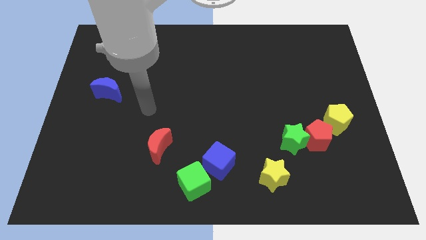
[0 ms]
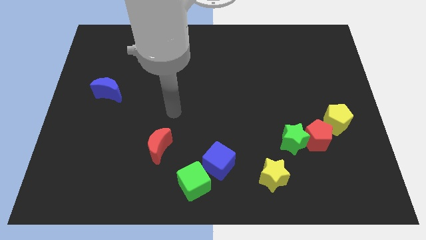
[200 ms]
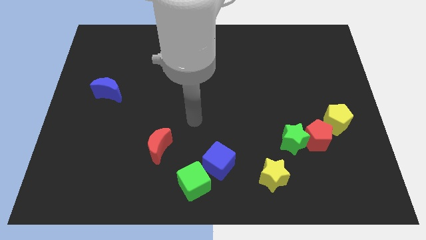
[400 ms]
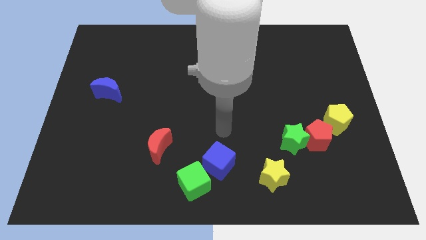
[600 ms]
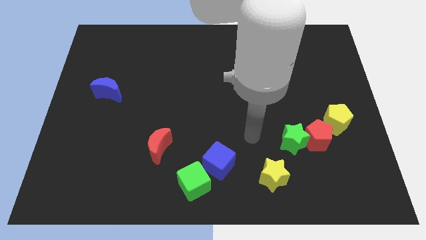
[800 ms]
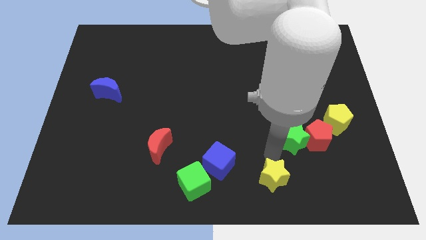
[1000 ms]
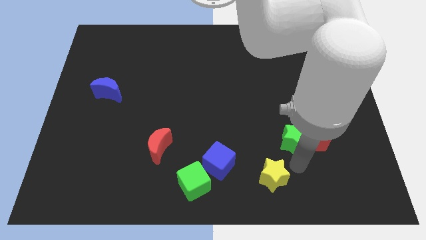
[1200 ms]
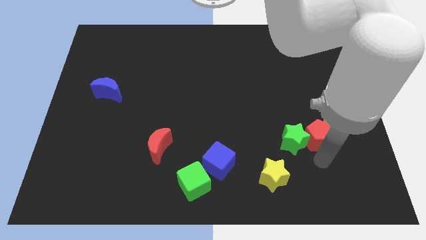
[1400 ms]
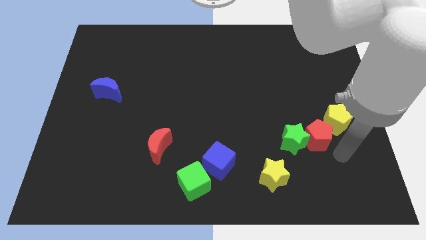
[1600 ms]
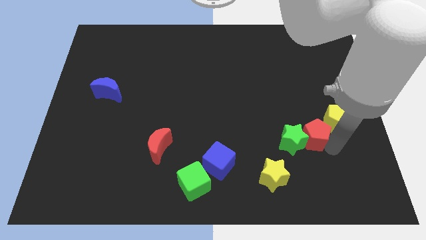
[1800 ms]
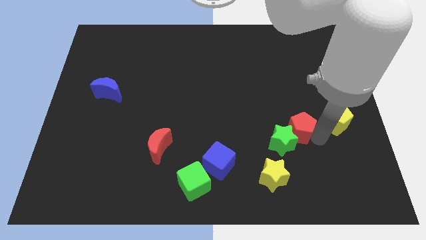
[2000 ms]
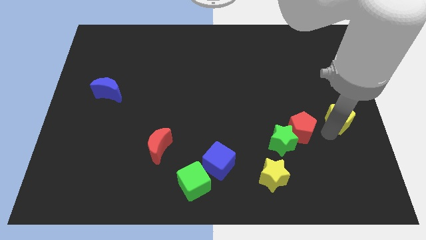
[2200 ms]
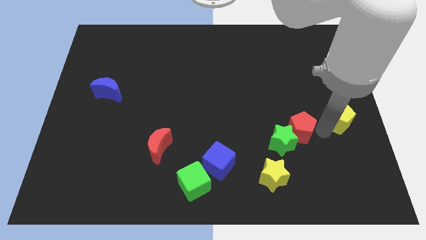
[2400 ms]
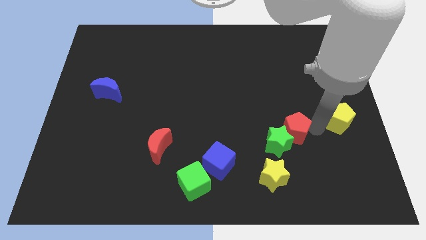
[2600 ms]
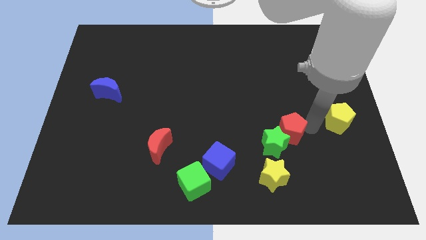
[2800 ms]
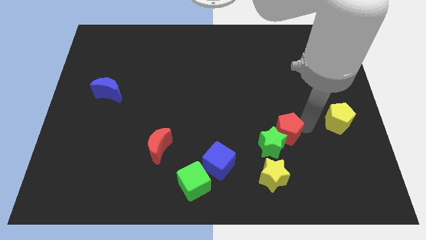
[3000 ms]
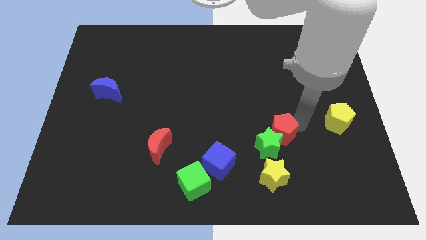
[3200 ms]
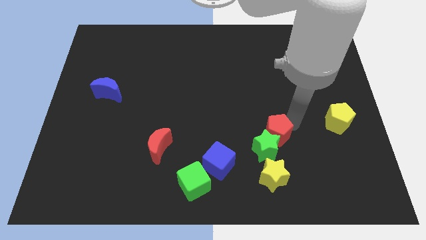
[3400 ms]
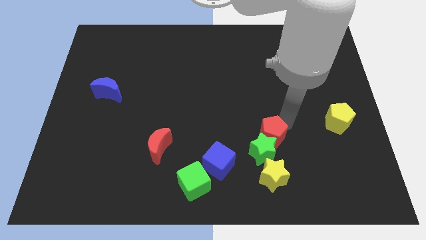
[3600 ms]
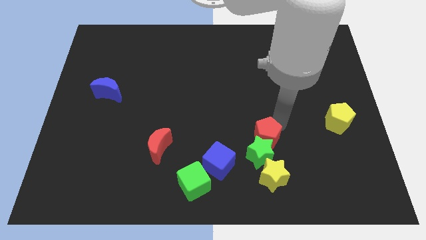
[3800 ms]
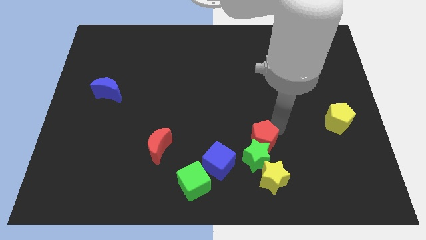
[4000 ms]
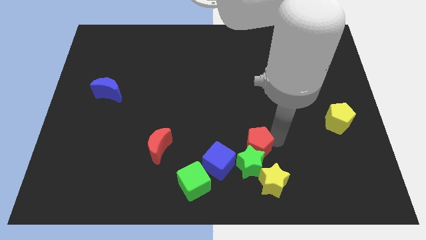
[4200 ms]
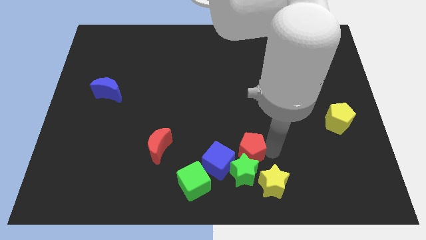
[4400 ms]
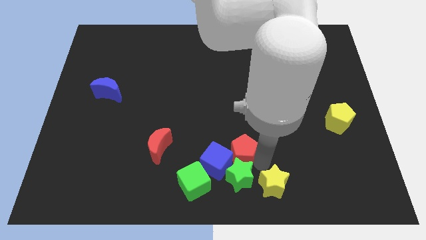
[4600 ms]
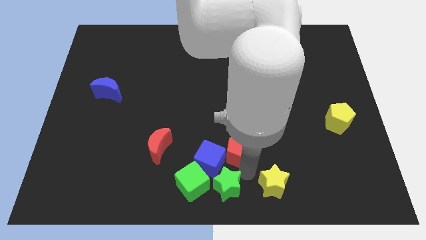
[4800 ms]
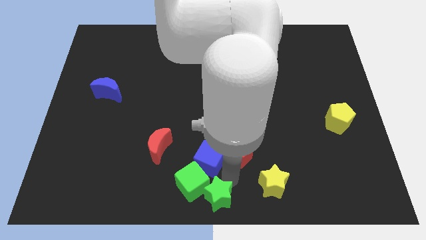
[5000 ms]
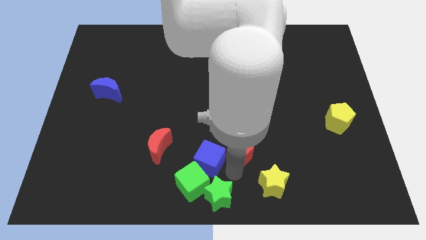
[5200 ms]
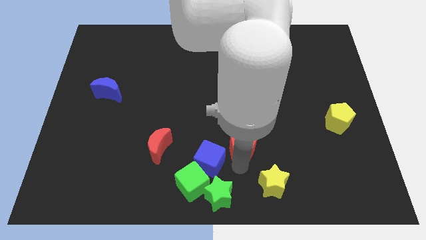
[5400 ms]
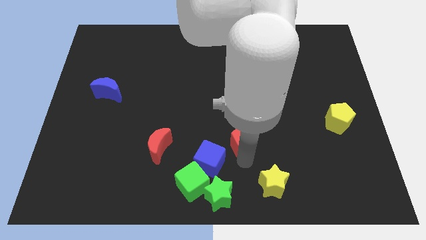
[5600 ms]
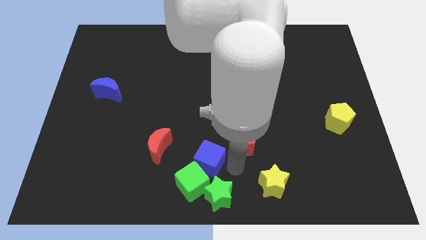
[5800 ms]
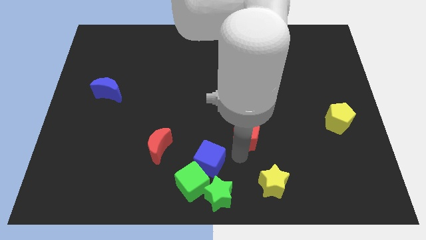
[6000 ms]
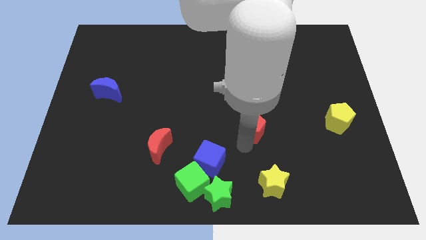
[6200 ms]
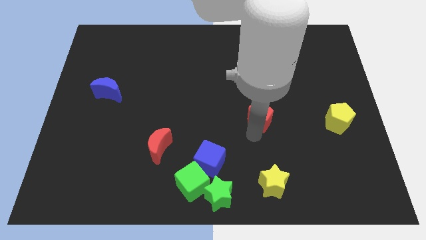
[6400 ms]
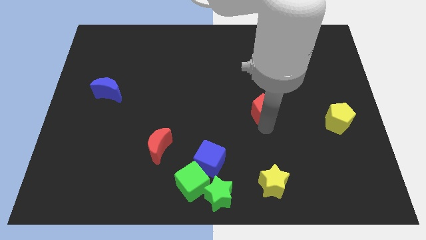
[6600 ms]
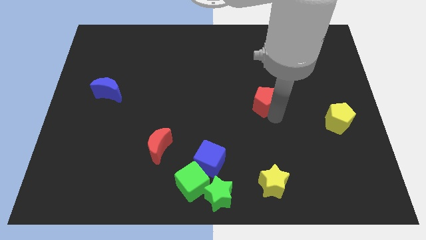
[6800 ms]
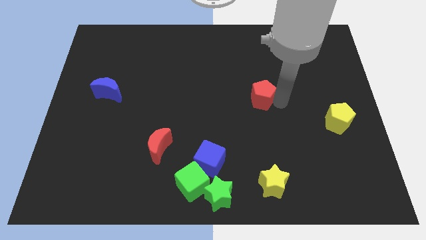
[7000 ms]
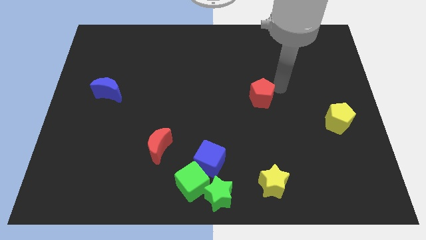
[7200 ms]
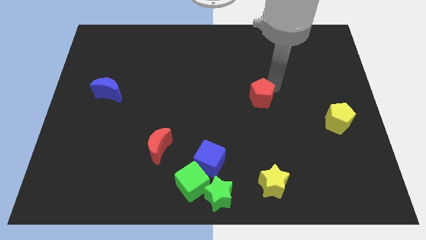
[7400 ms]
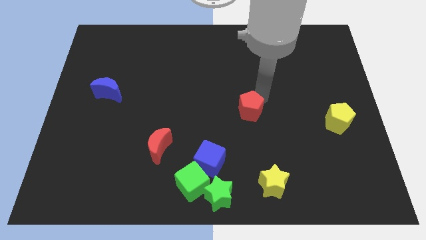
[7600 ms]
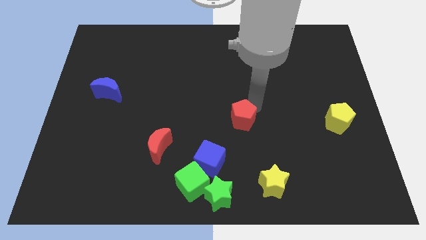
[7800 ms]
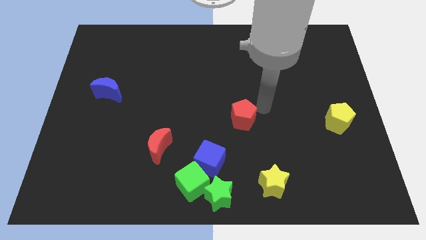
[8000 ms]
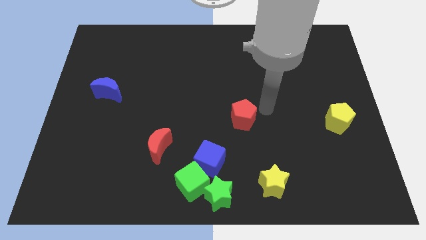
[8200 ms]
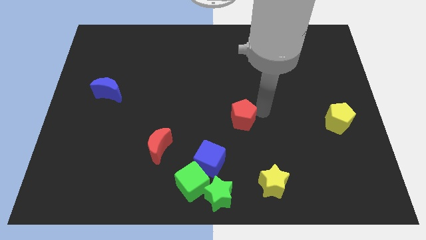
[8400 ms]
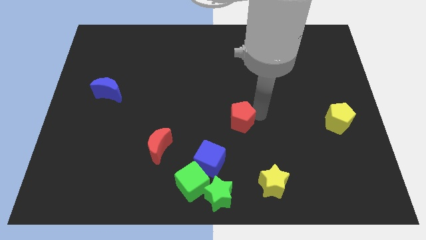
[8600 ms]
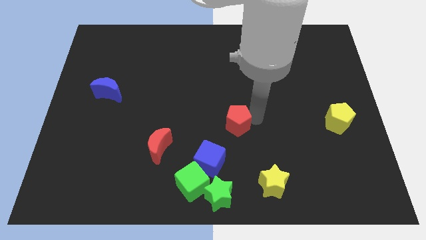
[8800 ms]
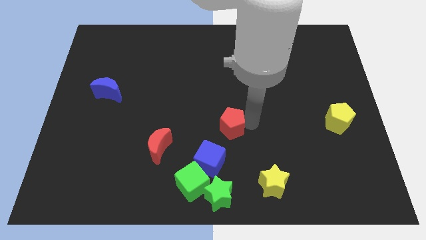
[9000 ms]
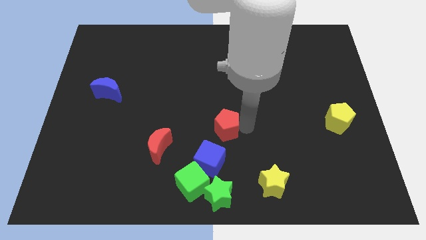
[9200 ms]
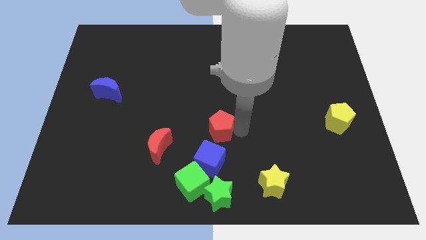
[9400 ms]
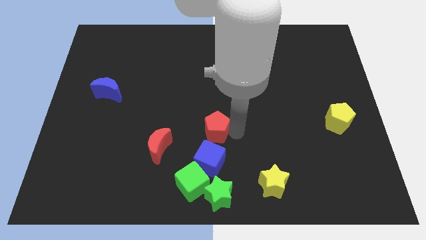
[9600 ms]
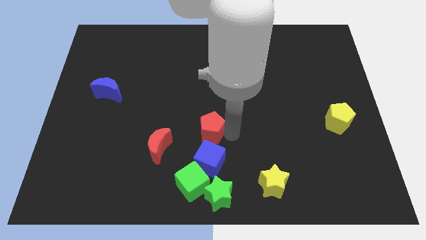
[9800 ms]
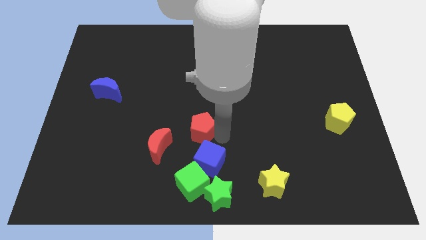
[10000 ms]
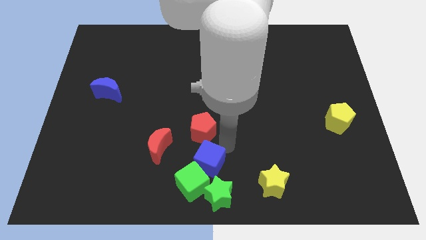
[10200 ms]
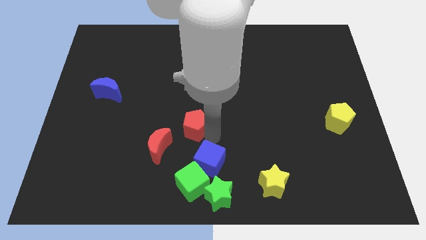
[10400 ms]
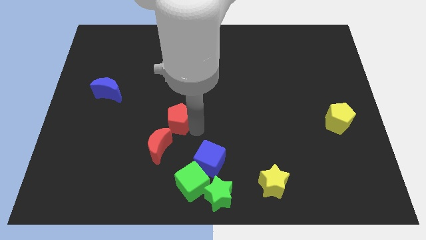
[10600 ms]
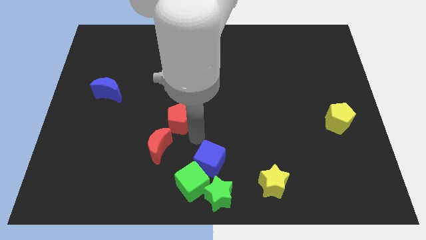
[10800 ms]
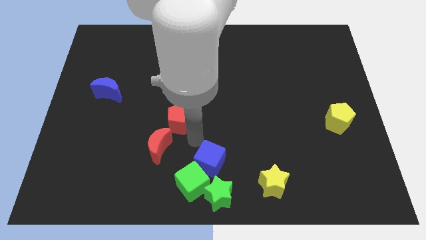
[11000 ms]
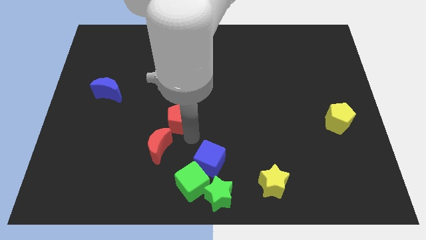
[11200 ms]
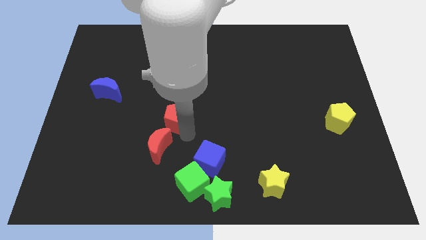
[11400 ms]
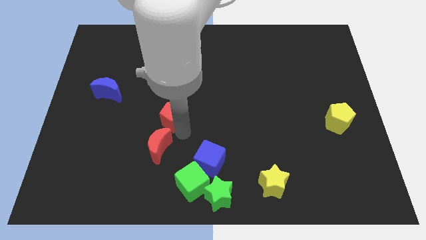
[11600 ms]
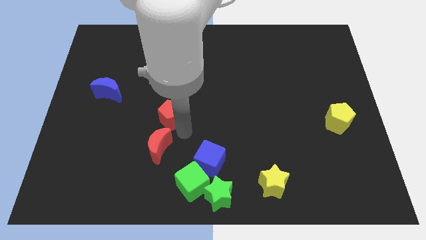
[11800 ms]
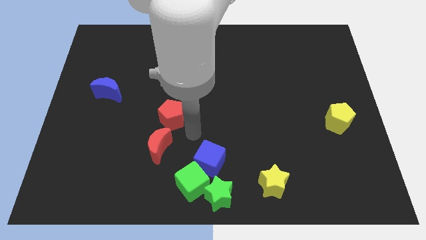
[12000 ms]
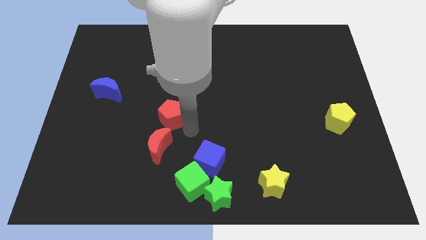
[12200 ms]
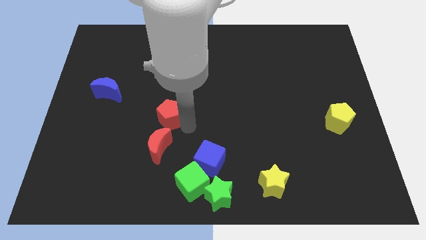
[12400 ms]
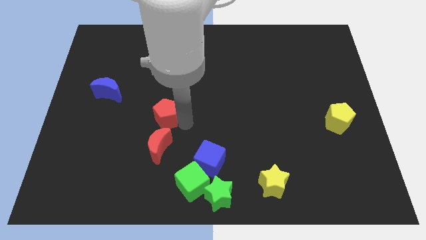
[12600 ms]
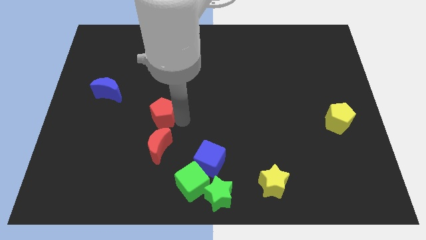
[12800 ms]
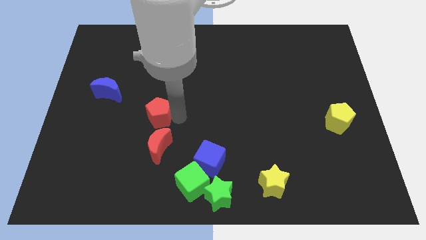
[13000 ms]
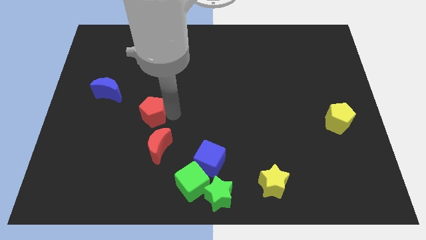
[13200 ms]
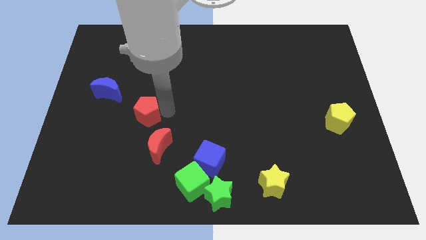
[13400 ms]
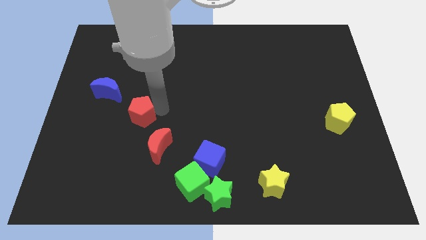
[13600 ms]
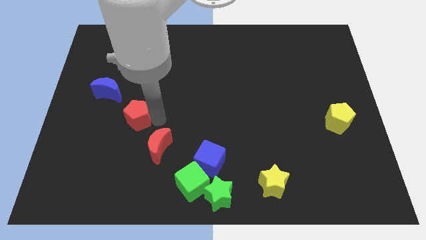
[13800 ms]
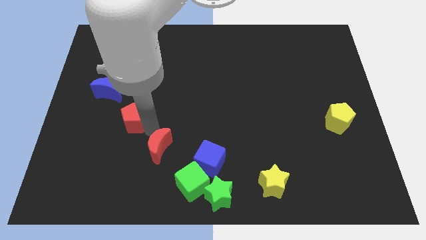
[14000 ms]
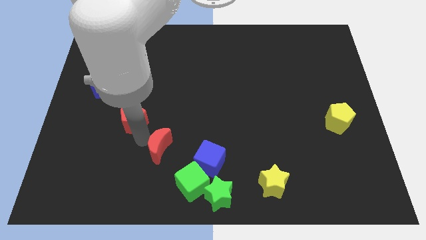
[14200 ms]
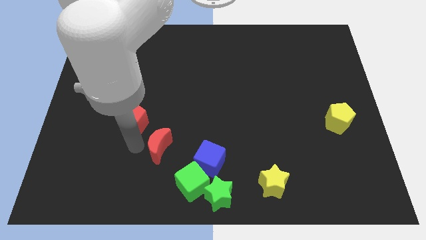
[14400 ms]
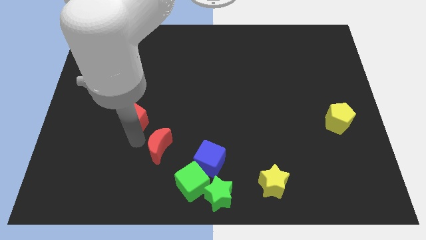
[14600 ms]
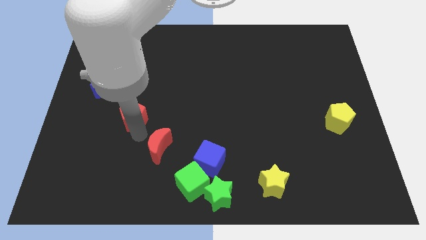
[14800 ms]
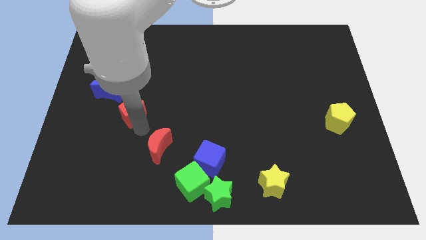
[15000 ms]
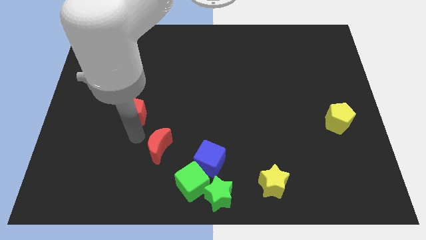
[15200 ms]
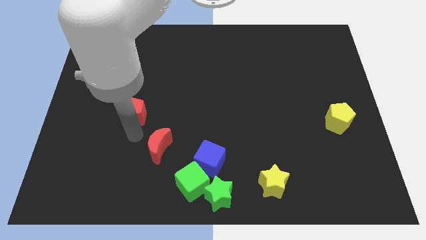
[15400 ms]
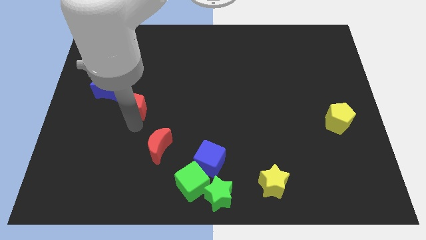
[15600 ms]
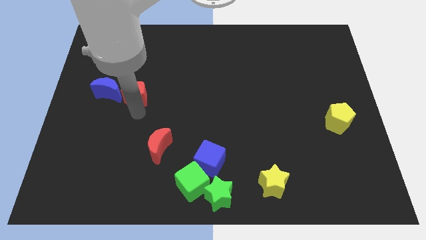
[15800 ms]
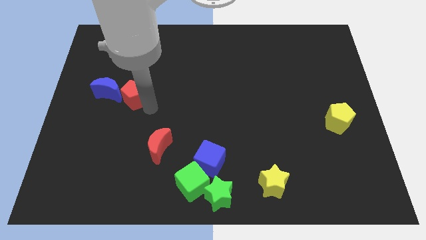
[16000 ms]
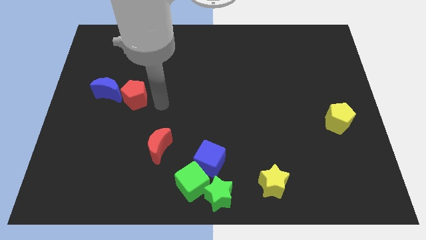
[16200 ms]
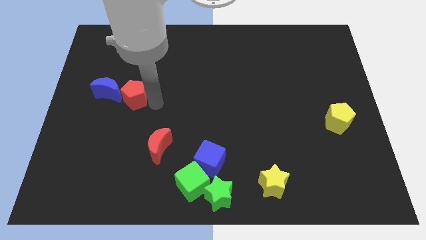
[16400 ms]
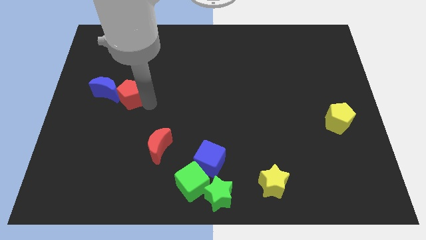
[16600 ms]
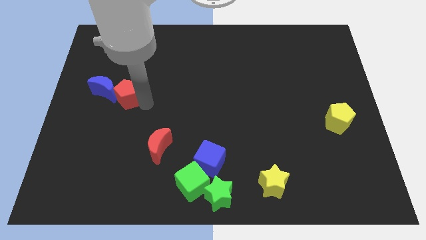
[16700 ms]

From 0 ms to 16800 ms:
move the red pentagon close to the blue moon
